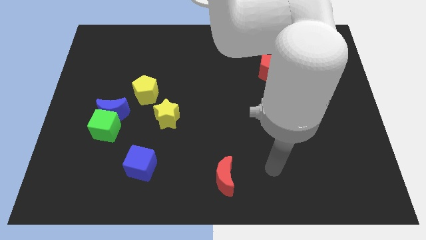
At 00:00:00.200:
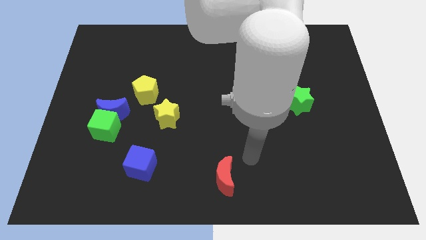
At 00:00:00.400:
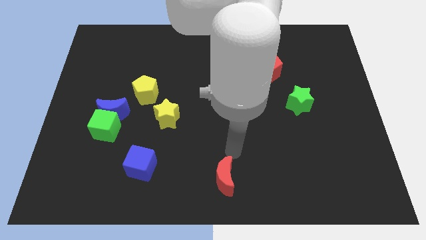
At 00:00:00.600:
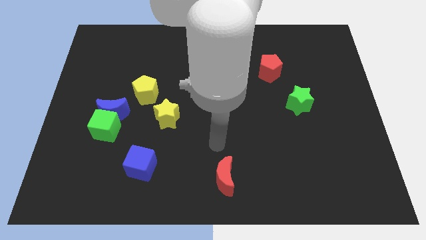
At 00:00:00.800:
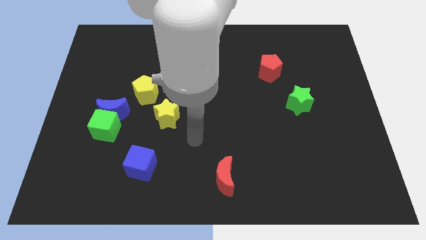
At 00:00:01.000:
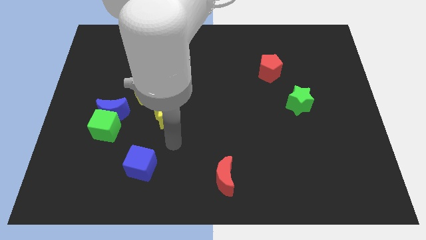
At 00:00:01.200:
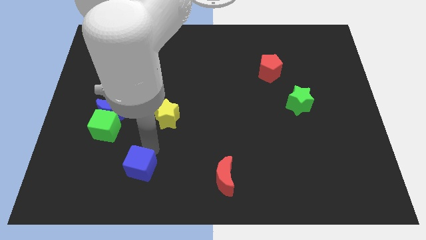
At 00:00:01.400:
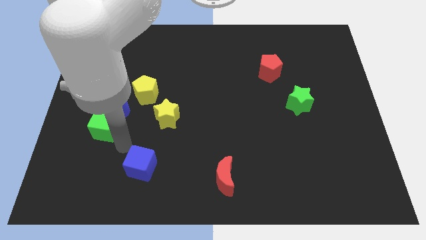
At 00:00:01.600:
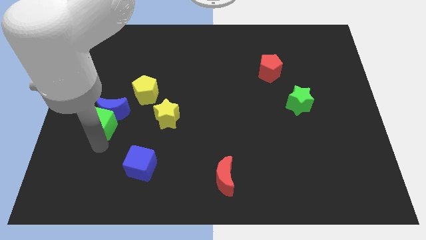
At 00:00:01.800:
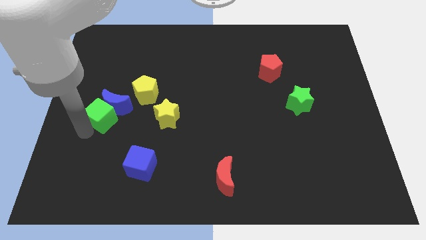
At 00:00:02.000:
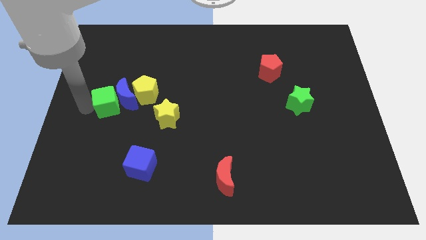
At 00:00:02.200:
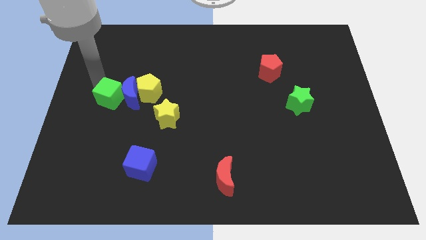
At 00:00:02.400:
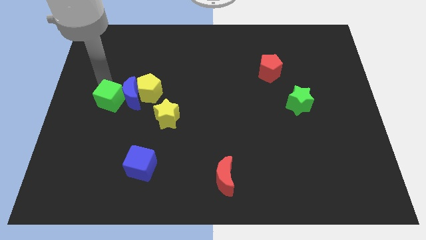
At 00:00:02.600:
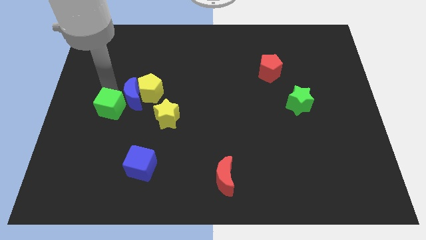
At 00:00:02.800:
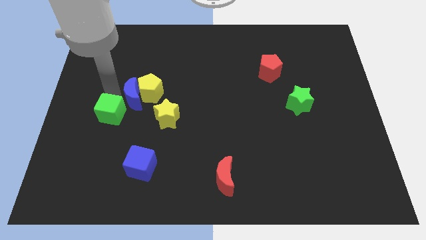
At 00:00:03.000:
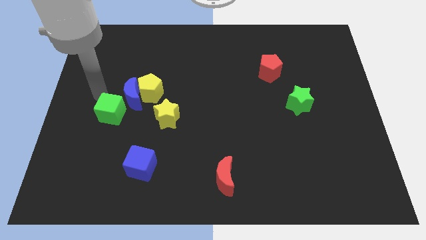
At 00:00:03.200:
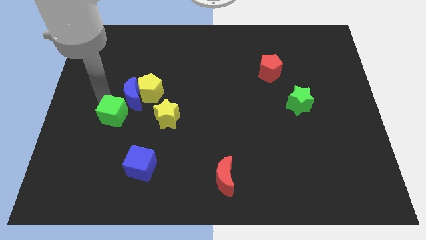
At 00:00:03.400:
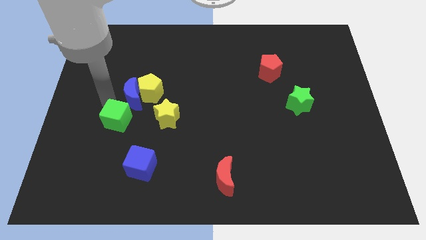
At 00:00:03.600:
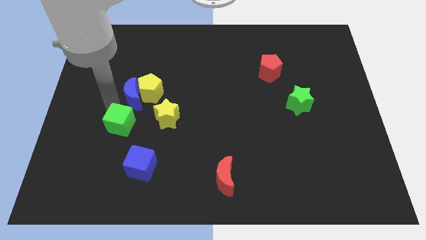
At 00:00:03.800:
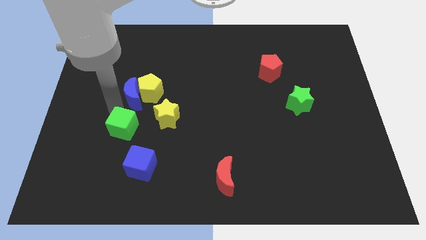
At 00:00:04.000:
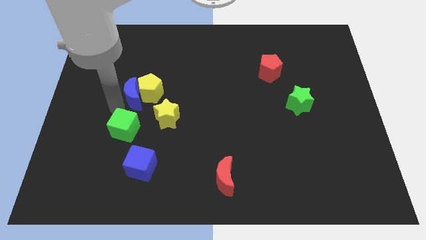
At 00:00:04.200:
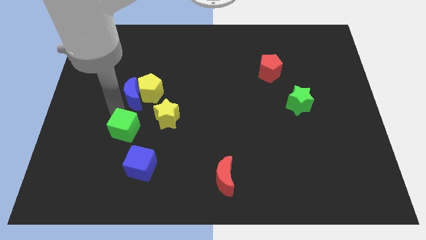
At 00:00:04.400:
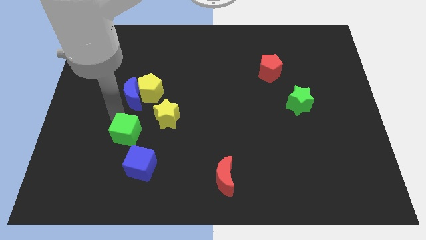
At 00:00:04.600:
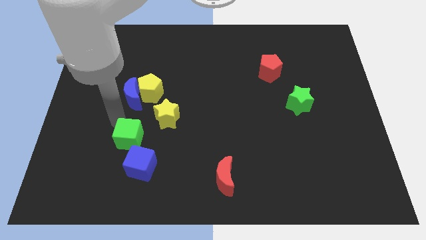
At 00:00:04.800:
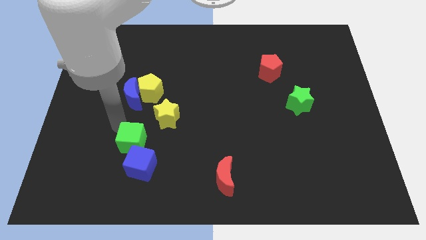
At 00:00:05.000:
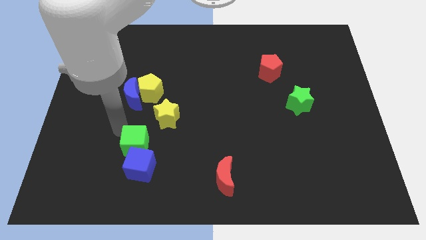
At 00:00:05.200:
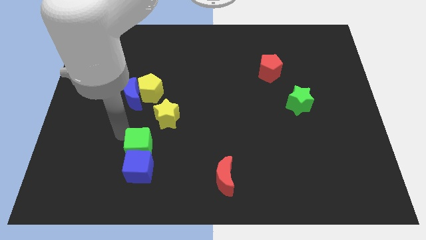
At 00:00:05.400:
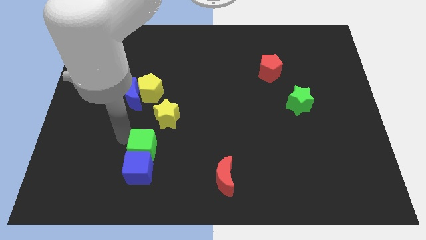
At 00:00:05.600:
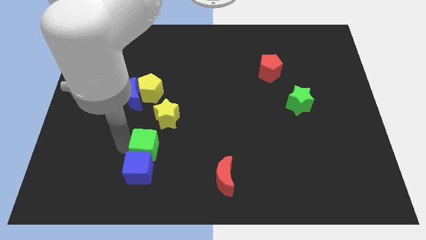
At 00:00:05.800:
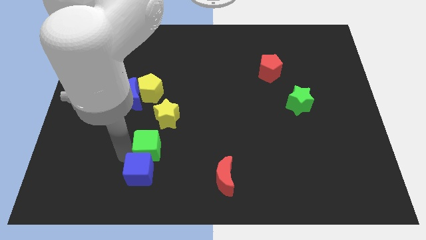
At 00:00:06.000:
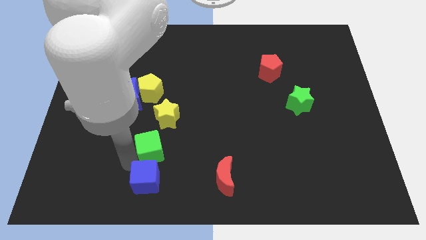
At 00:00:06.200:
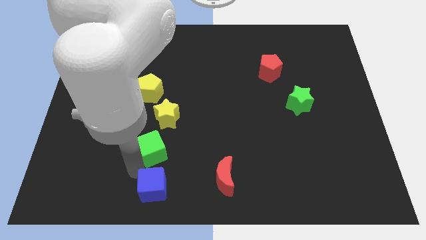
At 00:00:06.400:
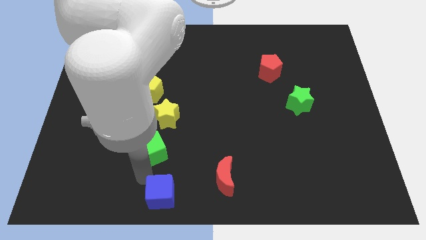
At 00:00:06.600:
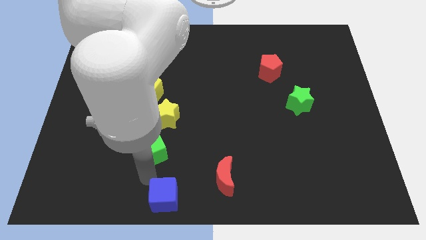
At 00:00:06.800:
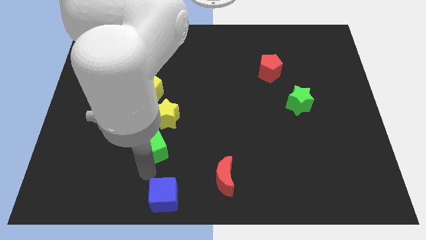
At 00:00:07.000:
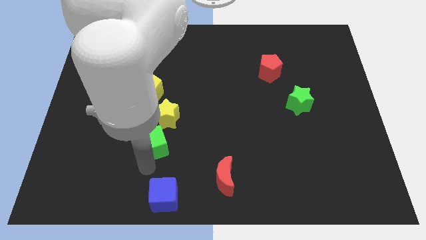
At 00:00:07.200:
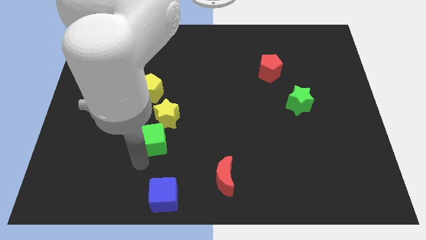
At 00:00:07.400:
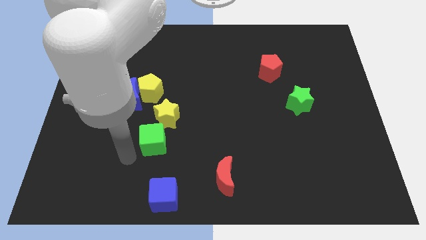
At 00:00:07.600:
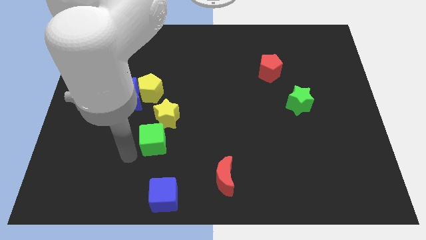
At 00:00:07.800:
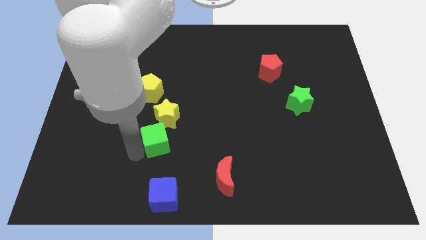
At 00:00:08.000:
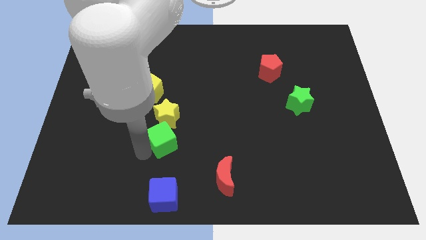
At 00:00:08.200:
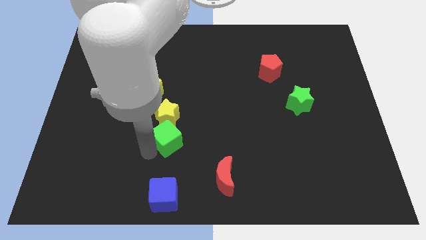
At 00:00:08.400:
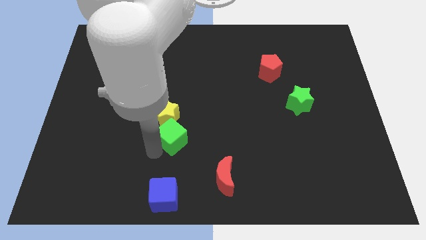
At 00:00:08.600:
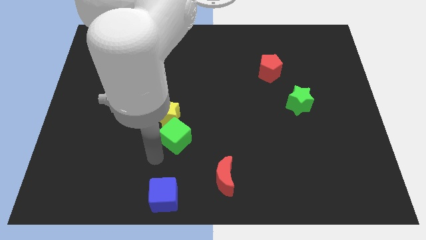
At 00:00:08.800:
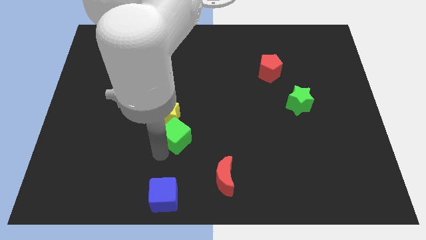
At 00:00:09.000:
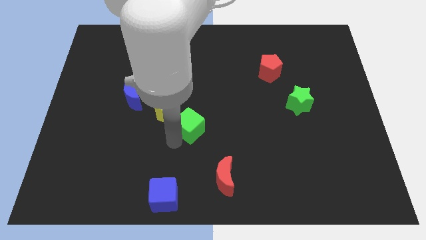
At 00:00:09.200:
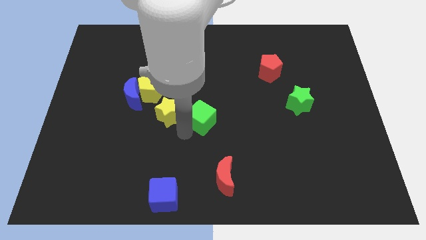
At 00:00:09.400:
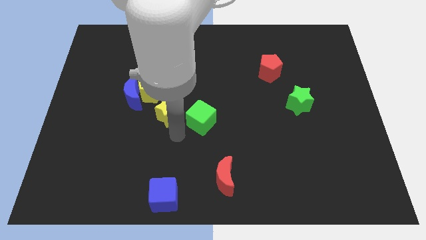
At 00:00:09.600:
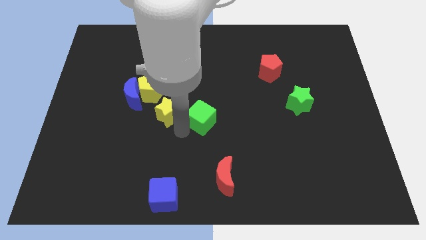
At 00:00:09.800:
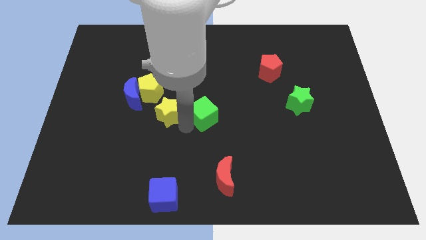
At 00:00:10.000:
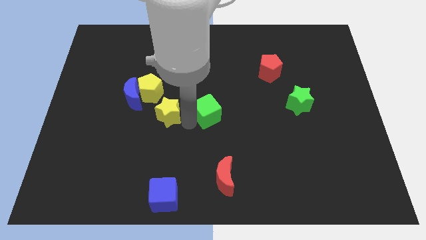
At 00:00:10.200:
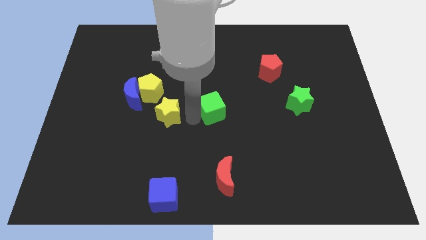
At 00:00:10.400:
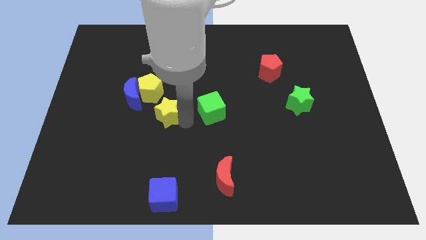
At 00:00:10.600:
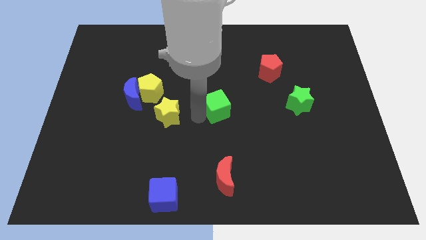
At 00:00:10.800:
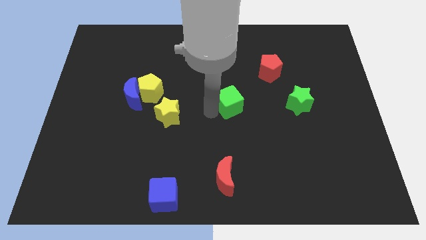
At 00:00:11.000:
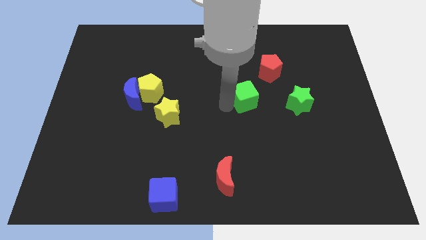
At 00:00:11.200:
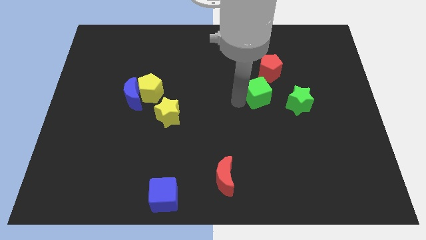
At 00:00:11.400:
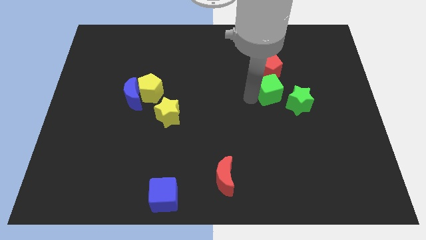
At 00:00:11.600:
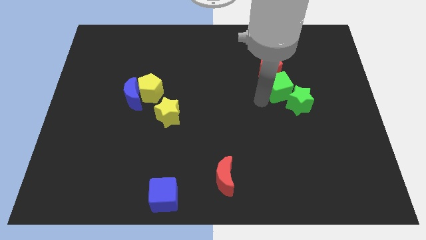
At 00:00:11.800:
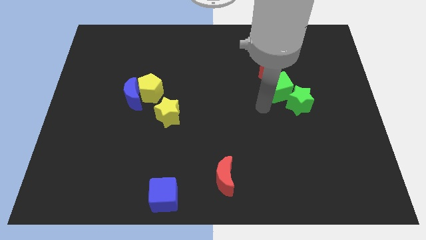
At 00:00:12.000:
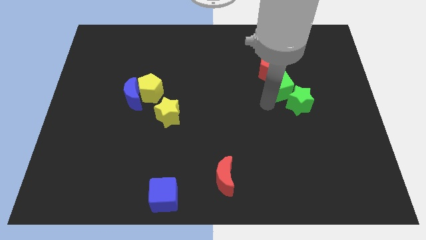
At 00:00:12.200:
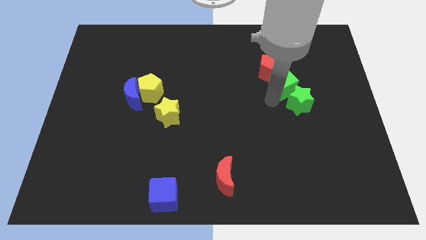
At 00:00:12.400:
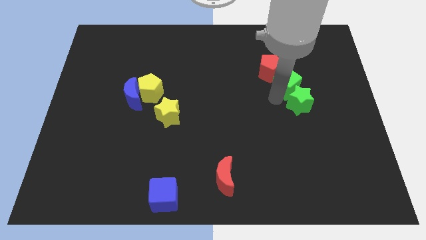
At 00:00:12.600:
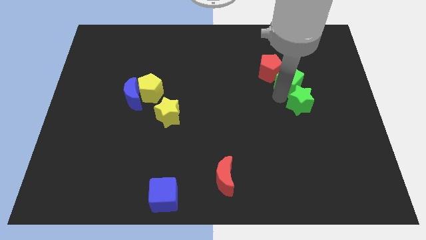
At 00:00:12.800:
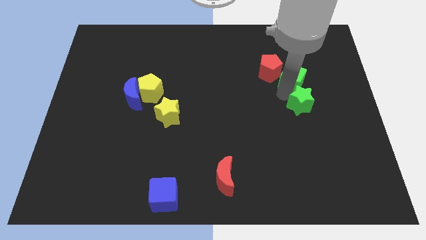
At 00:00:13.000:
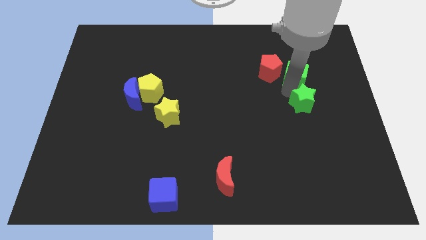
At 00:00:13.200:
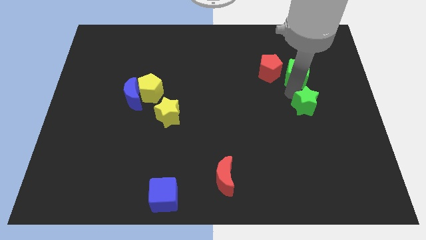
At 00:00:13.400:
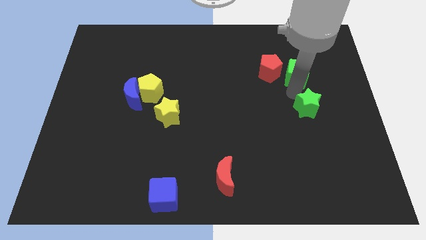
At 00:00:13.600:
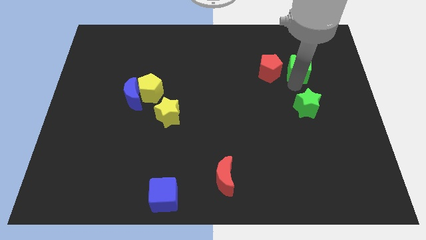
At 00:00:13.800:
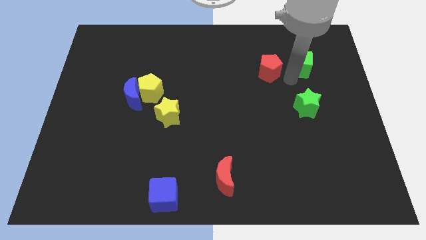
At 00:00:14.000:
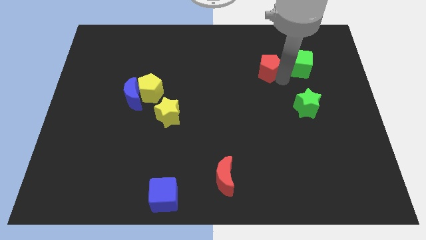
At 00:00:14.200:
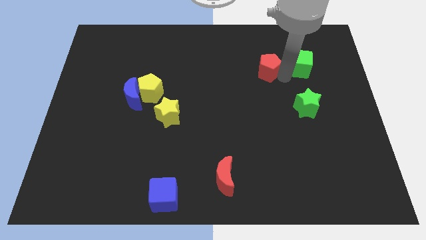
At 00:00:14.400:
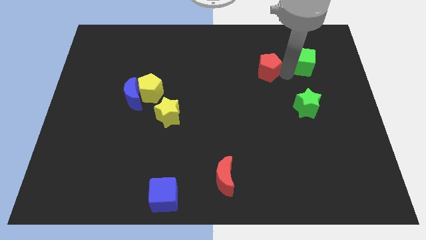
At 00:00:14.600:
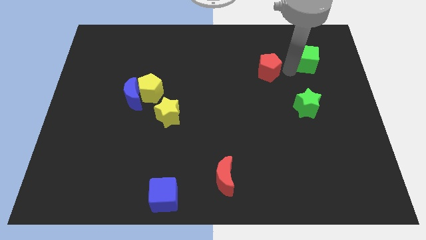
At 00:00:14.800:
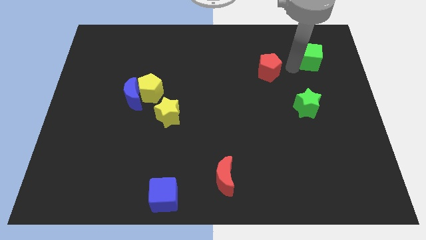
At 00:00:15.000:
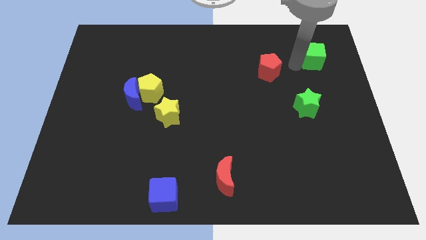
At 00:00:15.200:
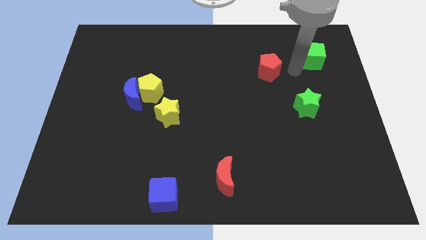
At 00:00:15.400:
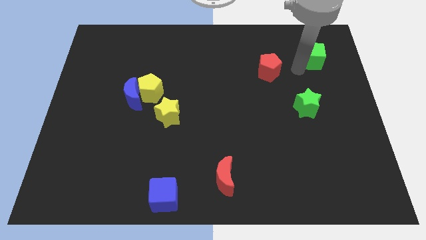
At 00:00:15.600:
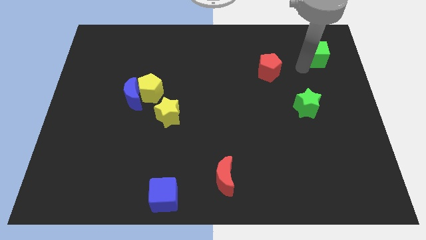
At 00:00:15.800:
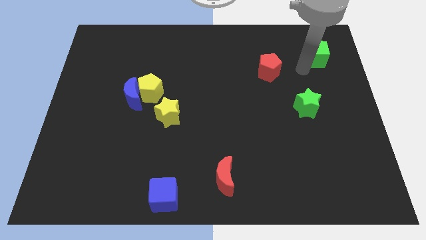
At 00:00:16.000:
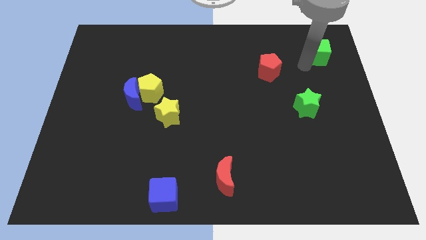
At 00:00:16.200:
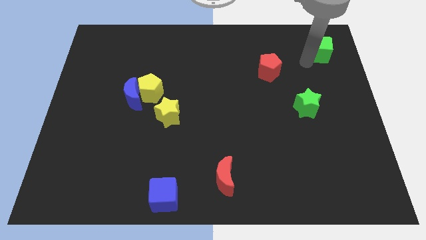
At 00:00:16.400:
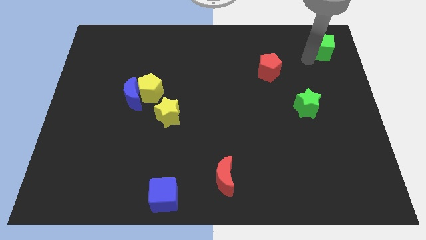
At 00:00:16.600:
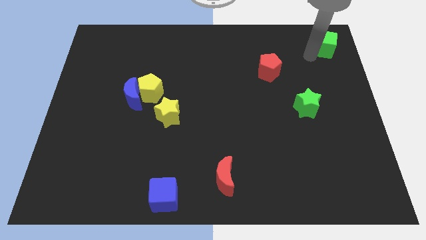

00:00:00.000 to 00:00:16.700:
push the green cube to the top right of the board
